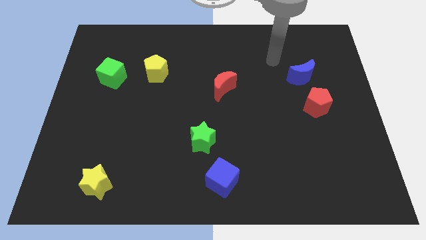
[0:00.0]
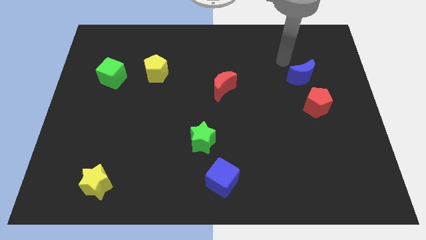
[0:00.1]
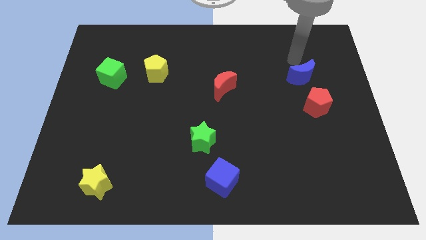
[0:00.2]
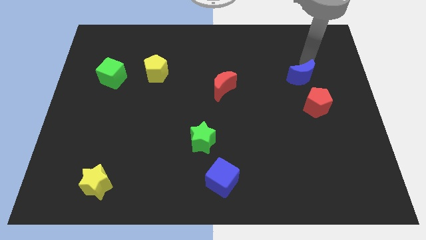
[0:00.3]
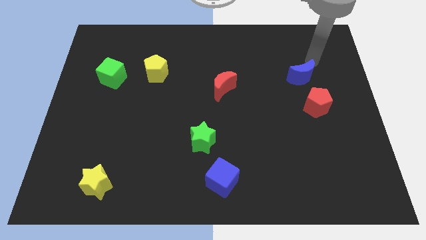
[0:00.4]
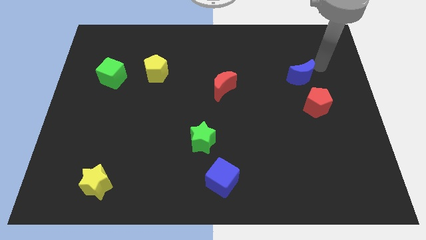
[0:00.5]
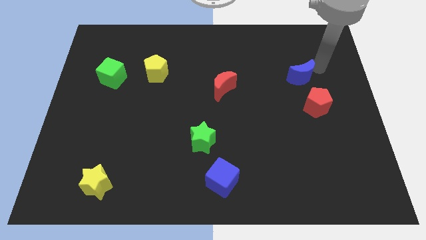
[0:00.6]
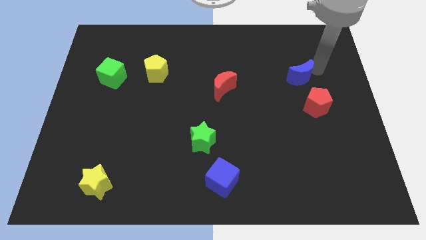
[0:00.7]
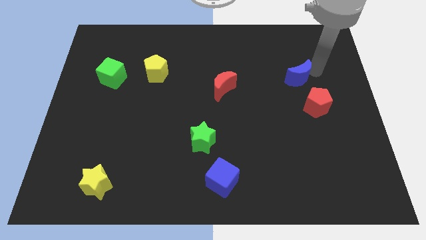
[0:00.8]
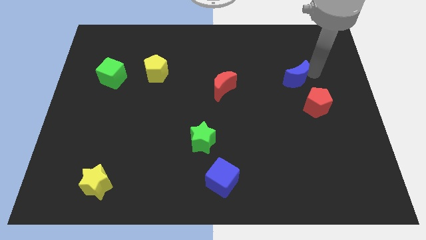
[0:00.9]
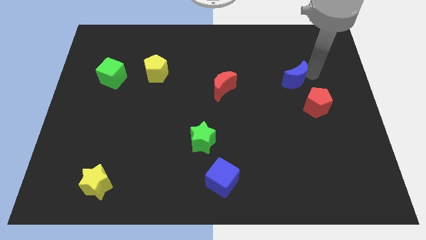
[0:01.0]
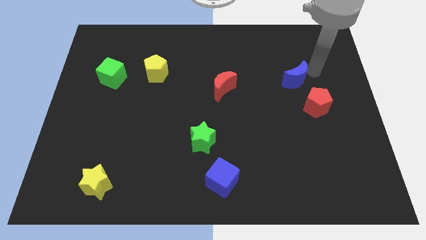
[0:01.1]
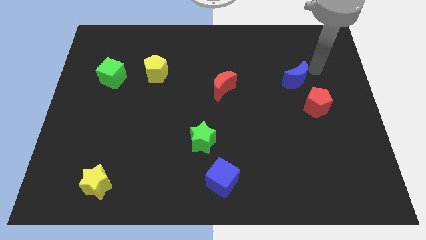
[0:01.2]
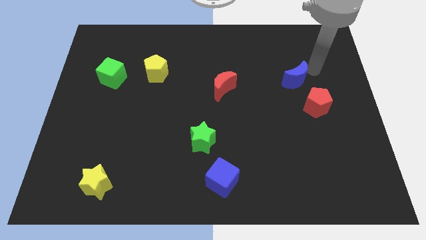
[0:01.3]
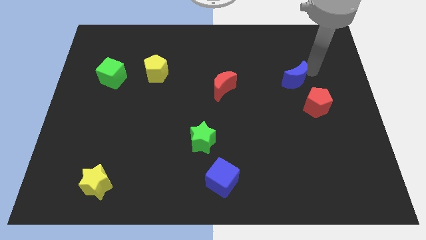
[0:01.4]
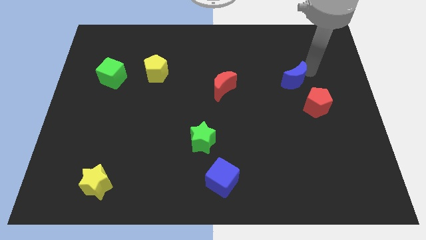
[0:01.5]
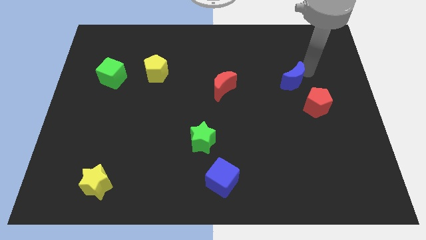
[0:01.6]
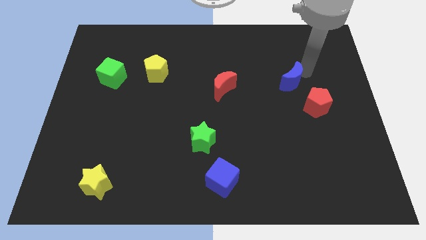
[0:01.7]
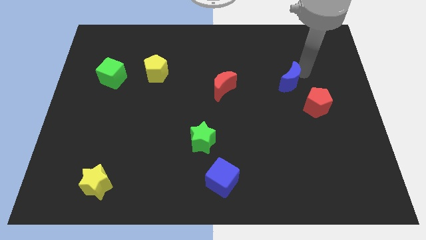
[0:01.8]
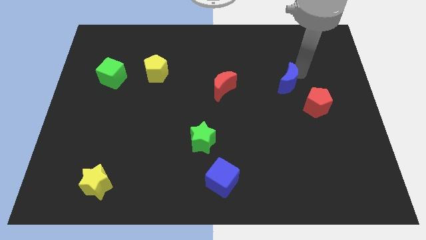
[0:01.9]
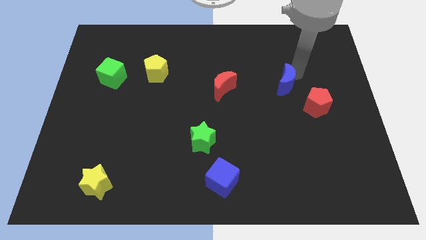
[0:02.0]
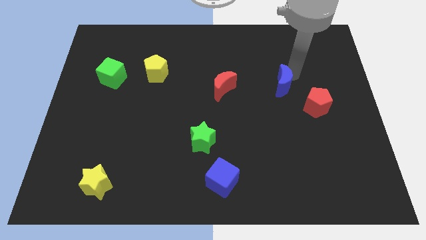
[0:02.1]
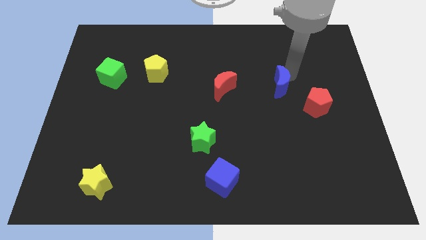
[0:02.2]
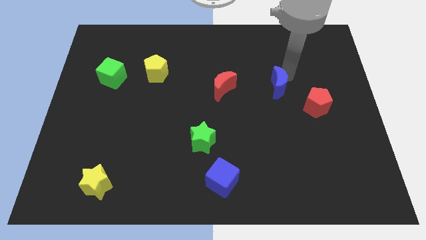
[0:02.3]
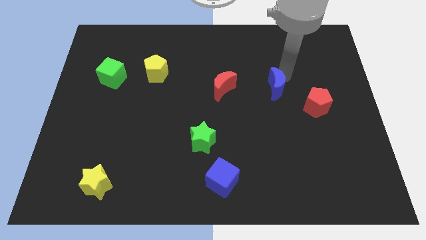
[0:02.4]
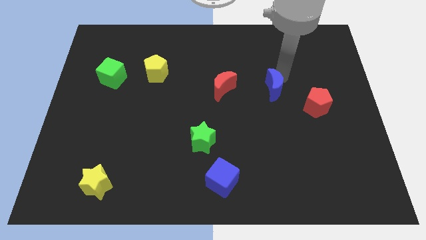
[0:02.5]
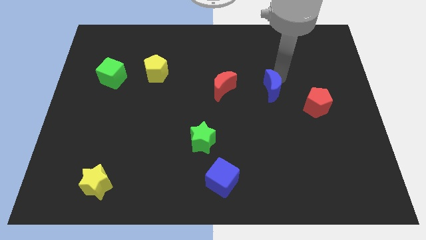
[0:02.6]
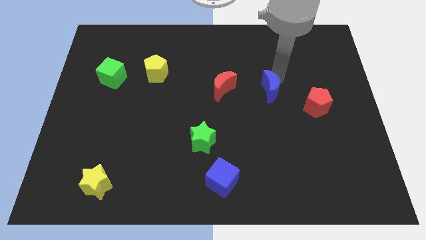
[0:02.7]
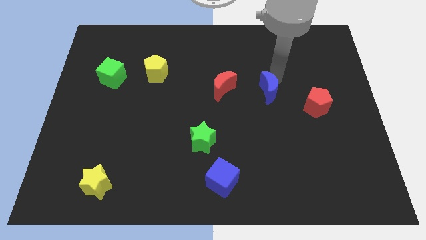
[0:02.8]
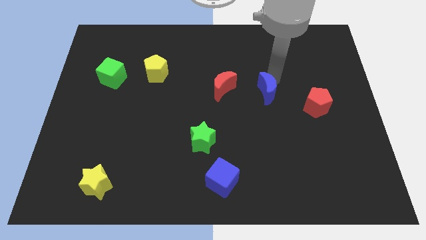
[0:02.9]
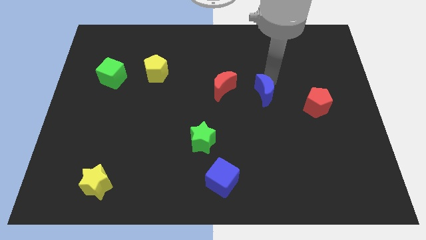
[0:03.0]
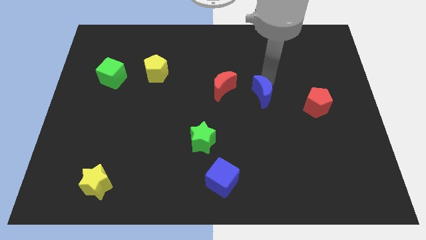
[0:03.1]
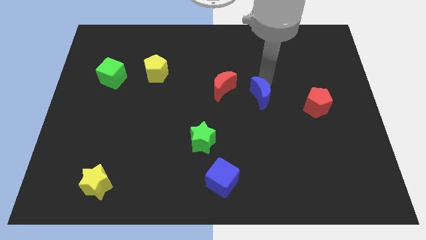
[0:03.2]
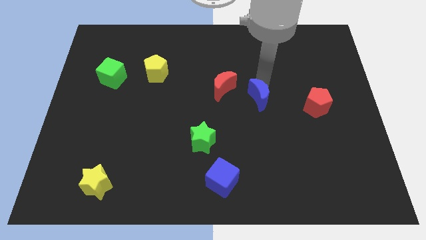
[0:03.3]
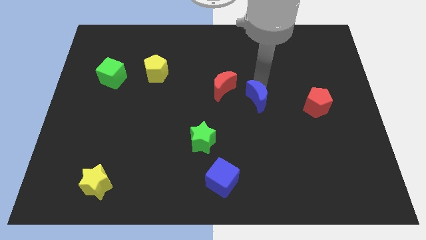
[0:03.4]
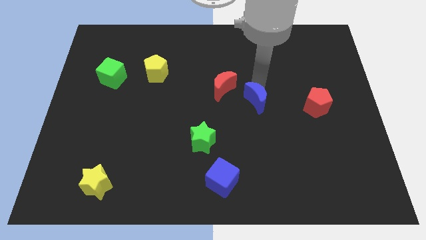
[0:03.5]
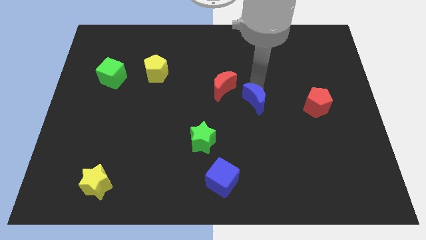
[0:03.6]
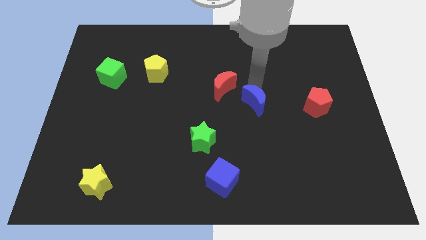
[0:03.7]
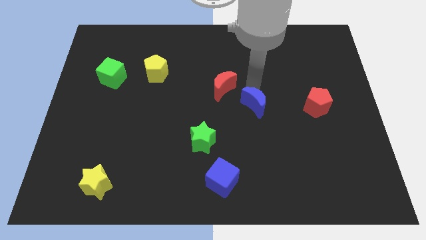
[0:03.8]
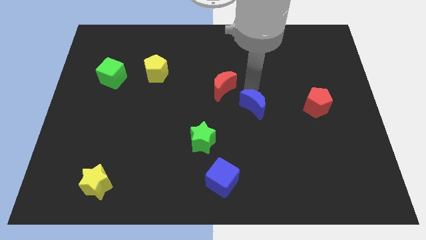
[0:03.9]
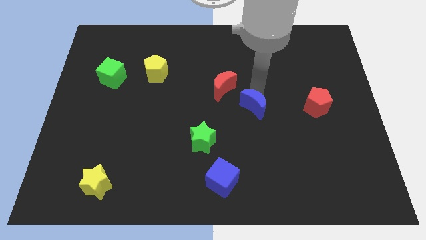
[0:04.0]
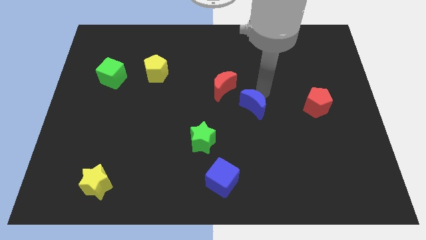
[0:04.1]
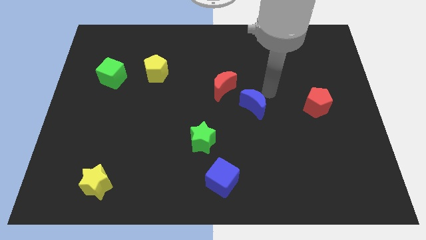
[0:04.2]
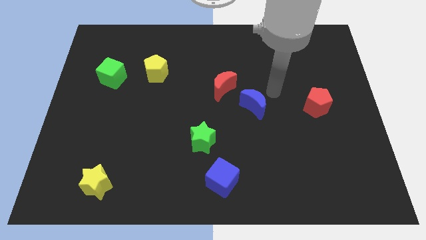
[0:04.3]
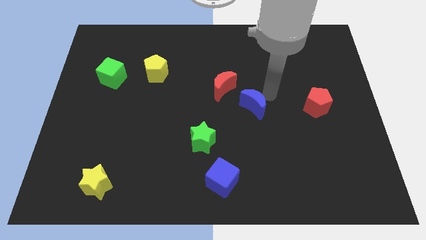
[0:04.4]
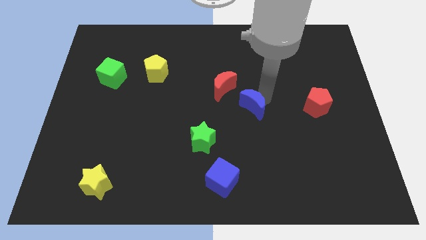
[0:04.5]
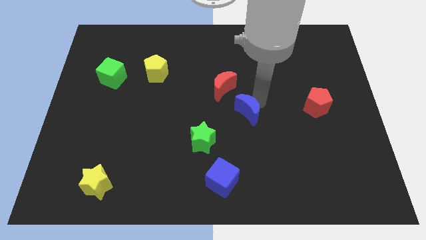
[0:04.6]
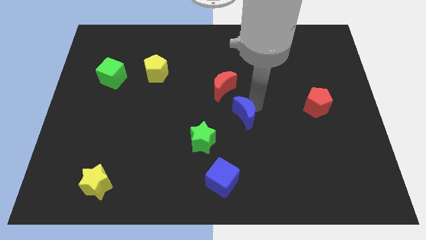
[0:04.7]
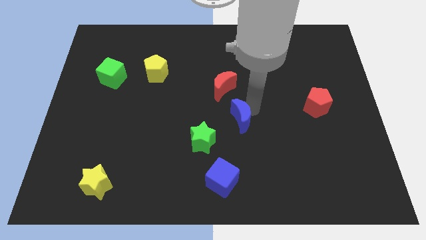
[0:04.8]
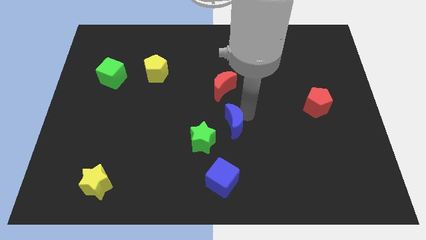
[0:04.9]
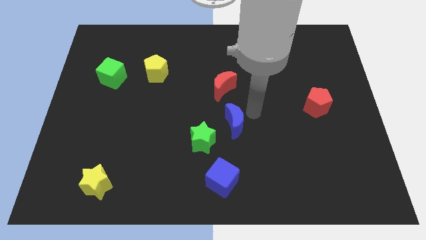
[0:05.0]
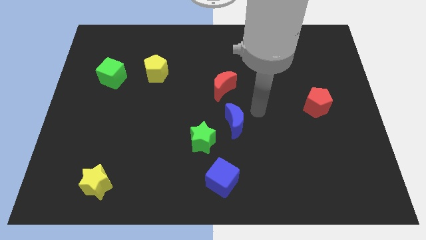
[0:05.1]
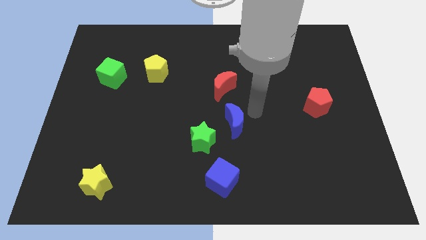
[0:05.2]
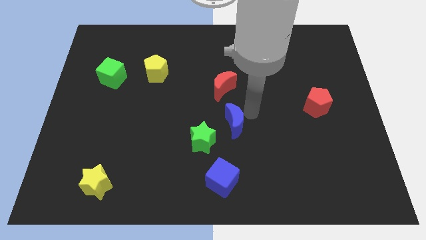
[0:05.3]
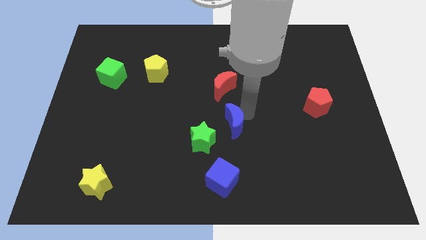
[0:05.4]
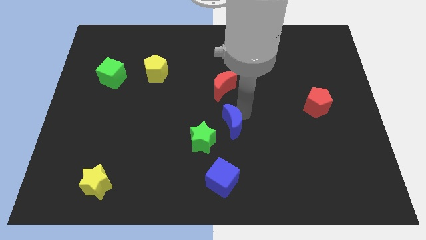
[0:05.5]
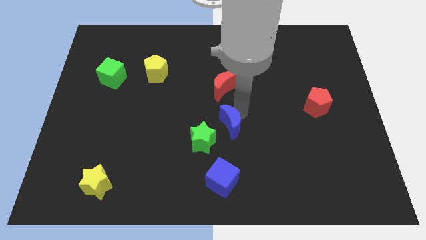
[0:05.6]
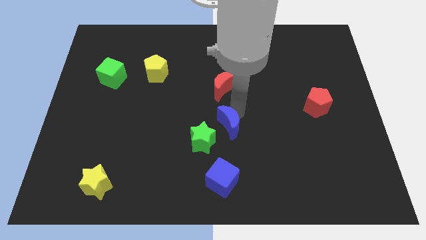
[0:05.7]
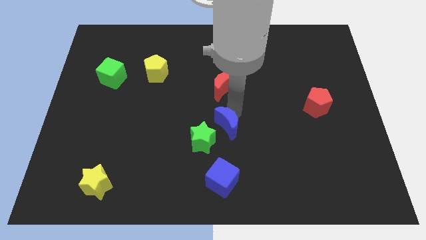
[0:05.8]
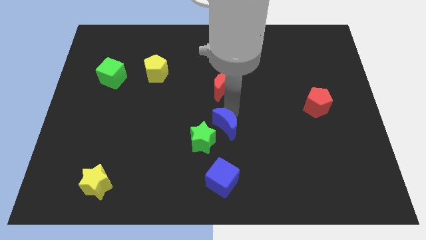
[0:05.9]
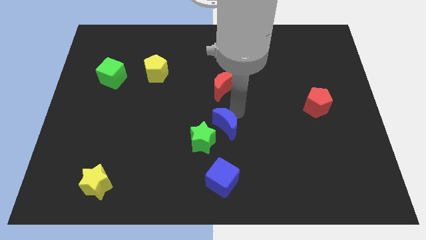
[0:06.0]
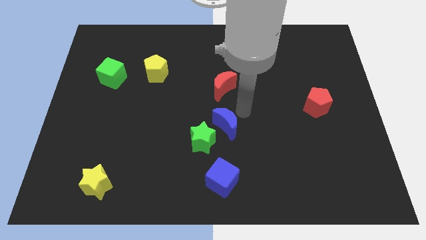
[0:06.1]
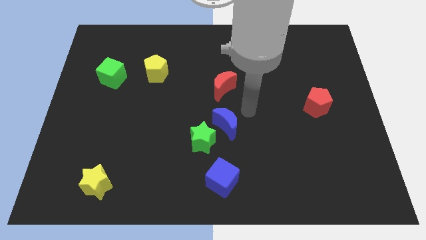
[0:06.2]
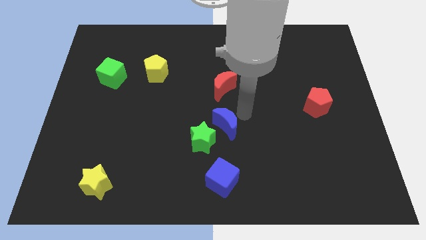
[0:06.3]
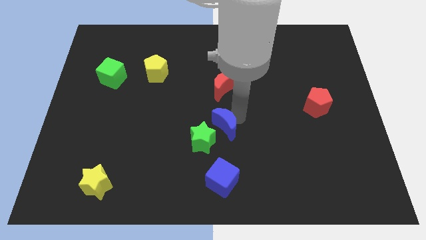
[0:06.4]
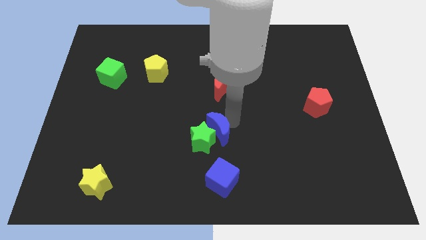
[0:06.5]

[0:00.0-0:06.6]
push the blue moon towards the green star

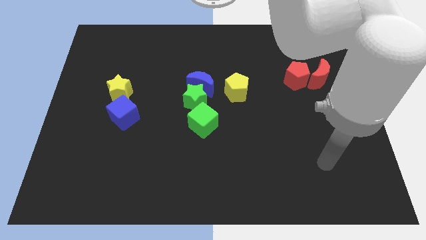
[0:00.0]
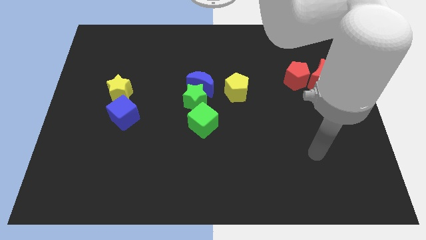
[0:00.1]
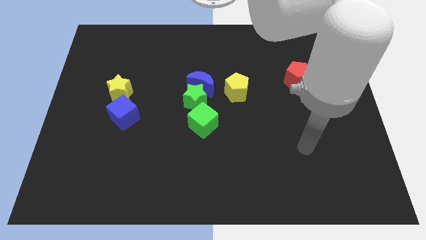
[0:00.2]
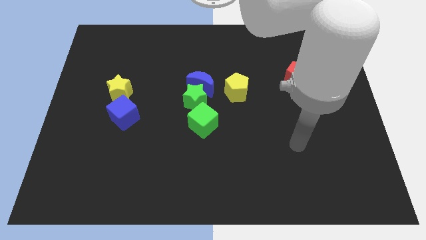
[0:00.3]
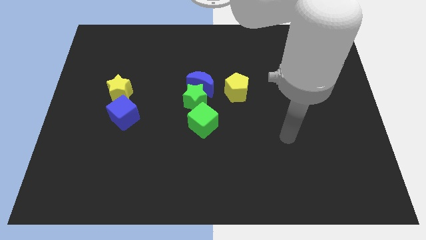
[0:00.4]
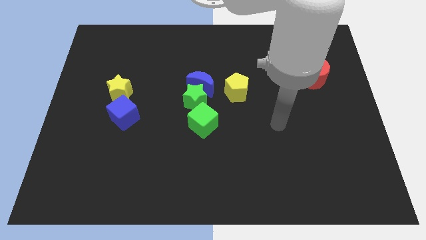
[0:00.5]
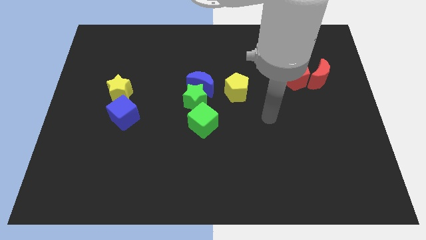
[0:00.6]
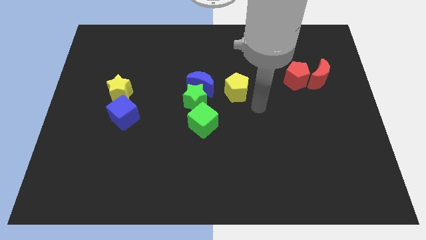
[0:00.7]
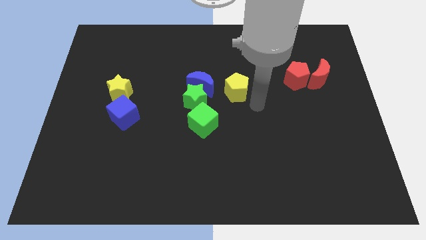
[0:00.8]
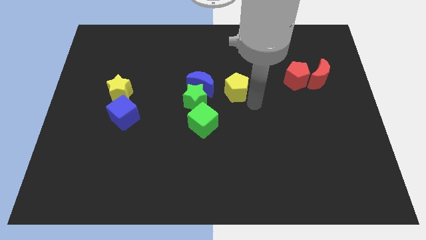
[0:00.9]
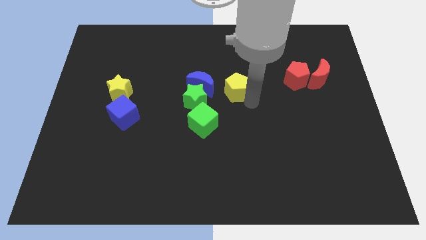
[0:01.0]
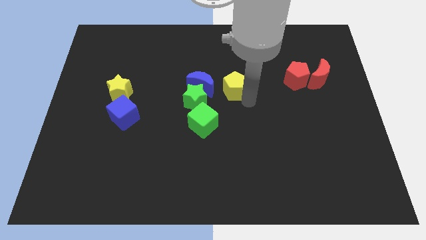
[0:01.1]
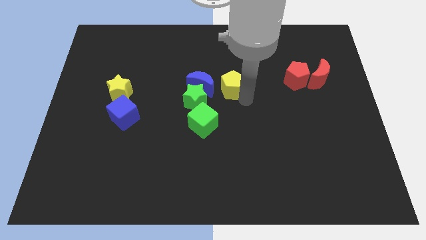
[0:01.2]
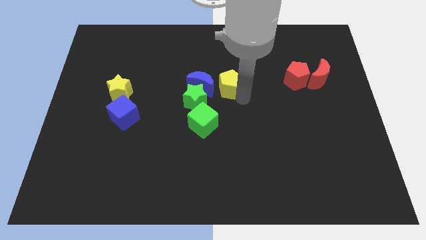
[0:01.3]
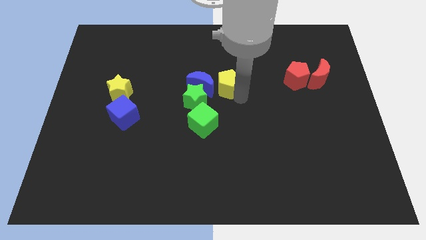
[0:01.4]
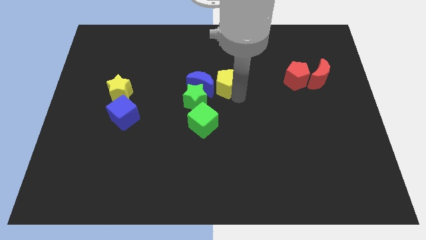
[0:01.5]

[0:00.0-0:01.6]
move the yellow pentagon to the blue moon
